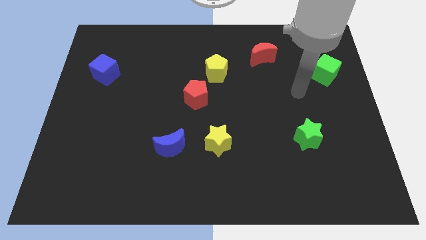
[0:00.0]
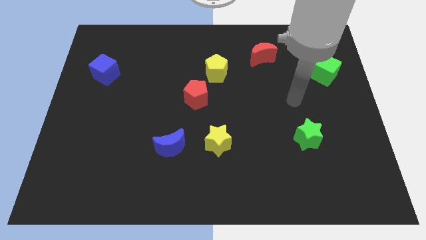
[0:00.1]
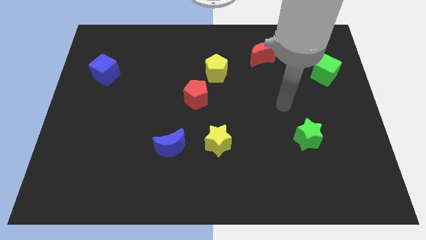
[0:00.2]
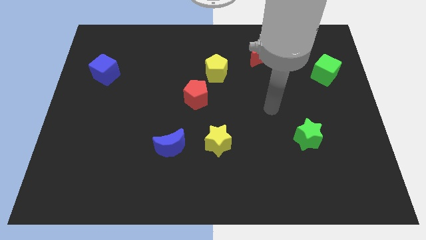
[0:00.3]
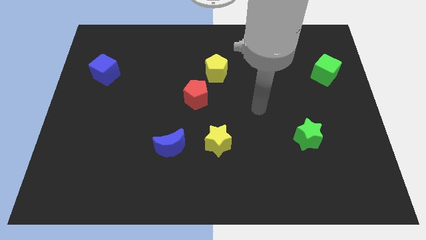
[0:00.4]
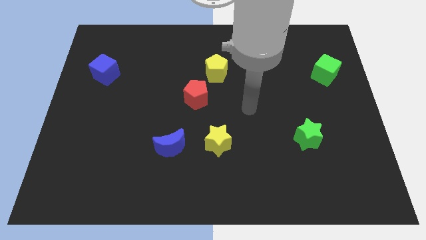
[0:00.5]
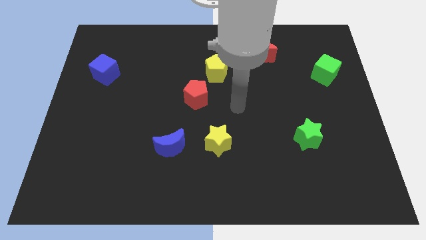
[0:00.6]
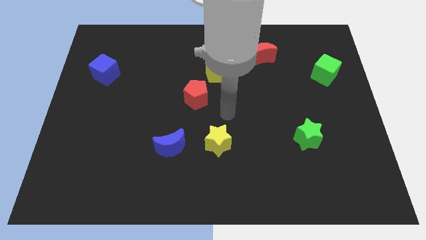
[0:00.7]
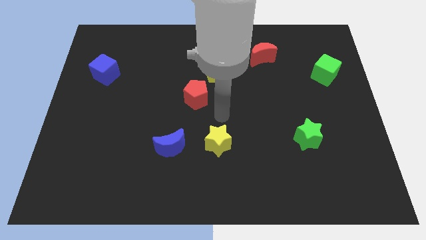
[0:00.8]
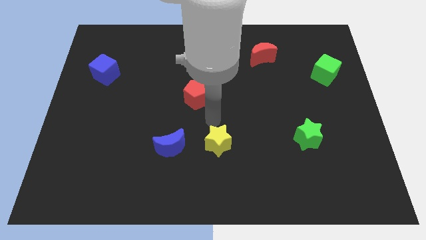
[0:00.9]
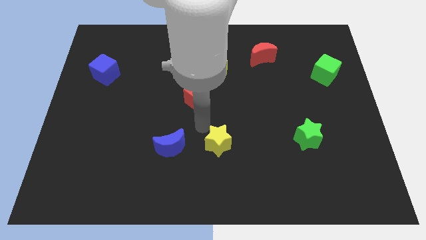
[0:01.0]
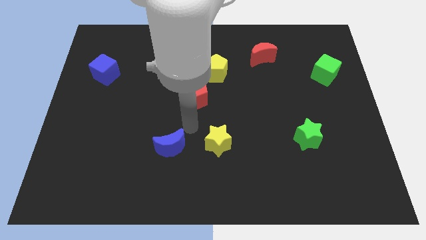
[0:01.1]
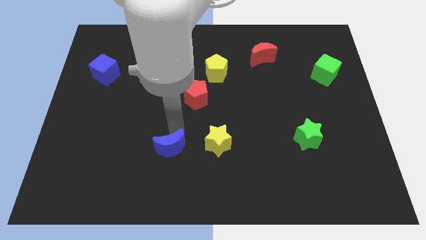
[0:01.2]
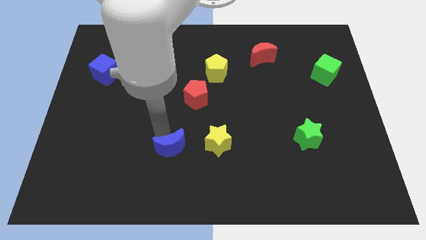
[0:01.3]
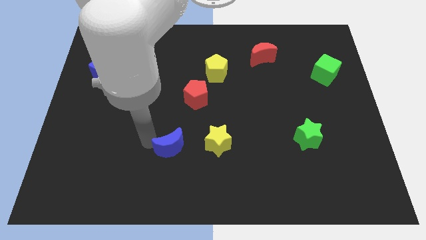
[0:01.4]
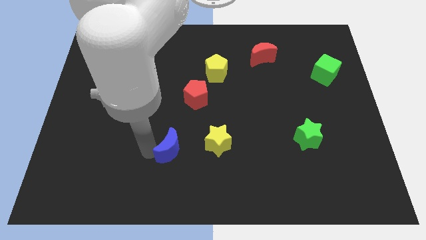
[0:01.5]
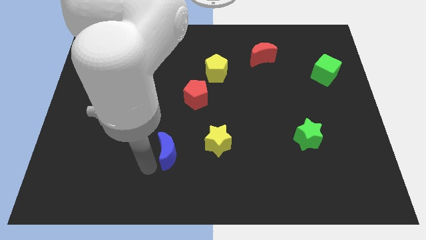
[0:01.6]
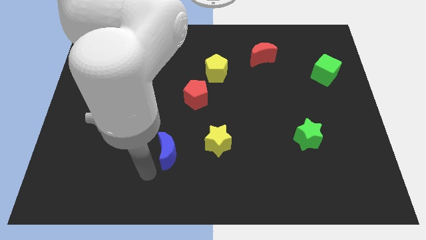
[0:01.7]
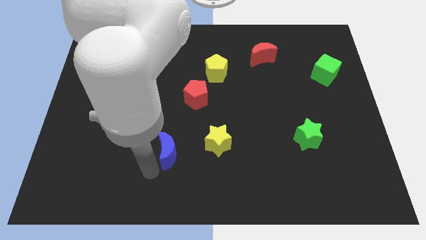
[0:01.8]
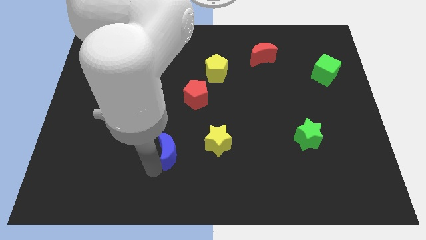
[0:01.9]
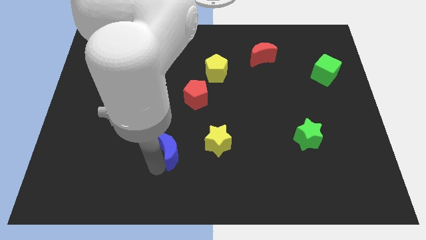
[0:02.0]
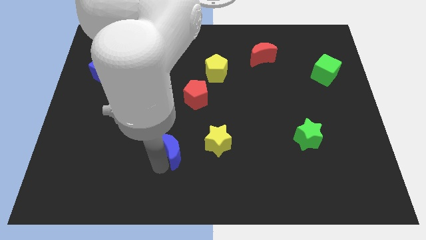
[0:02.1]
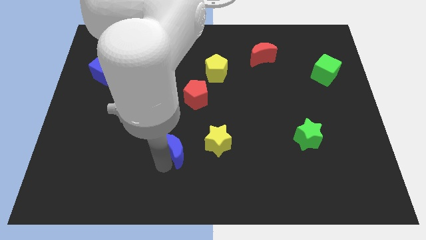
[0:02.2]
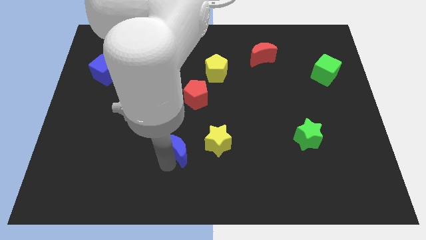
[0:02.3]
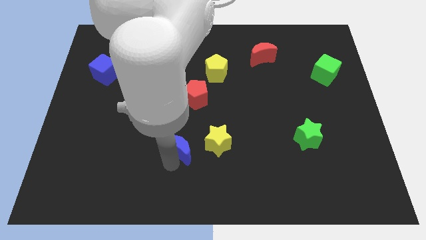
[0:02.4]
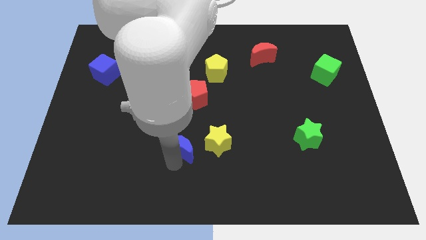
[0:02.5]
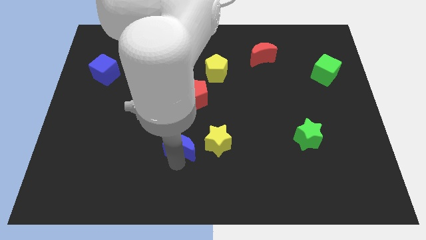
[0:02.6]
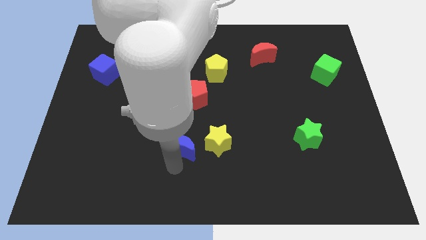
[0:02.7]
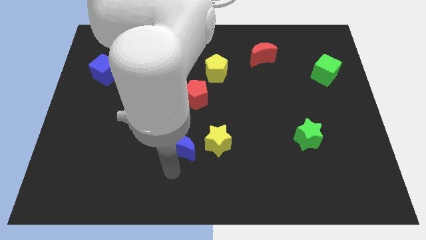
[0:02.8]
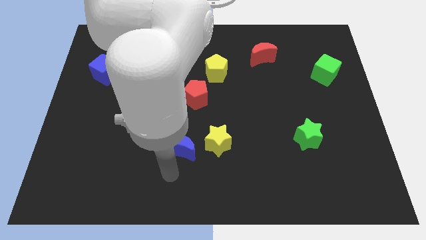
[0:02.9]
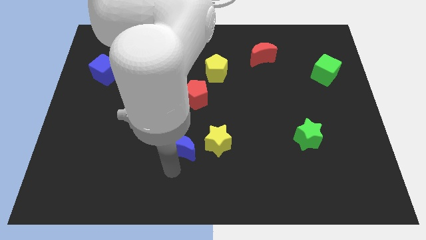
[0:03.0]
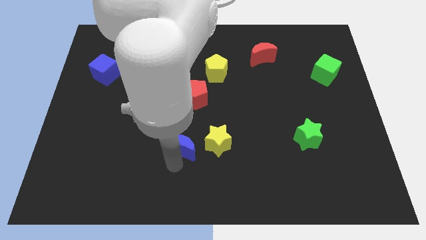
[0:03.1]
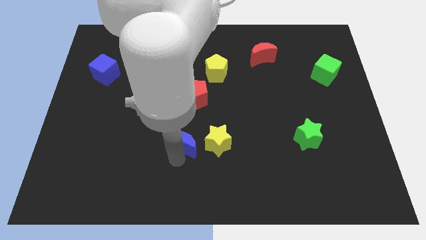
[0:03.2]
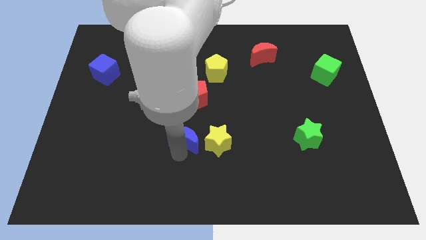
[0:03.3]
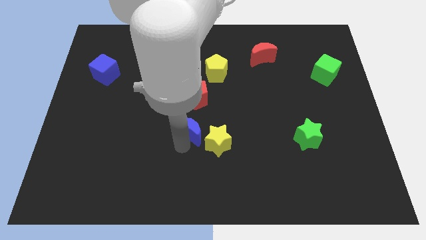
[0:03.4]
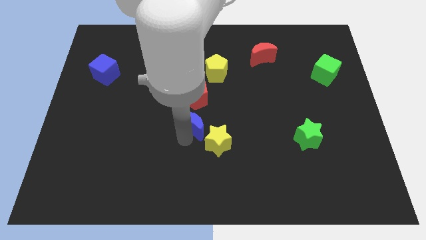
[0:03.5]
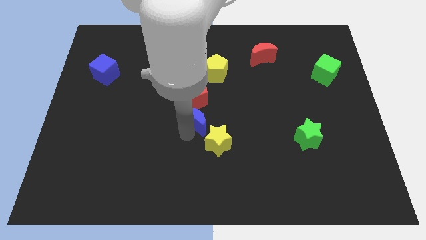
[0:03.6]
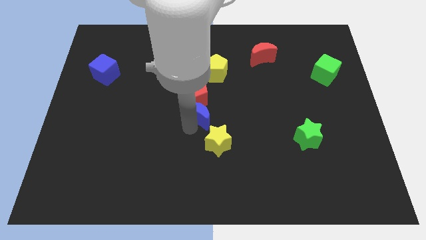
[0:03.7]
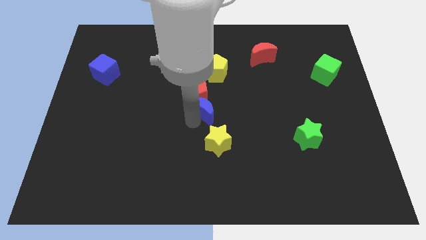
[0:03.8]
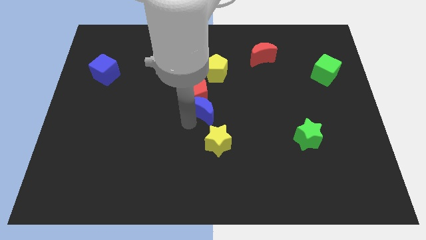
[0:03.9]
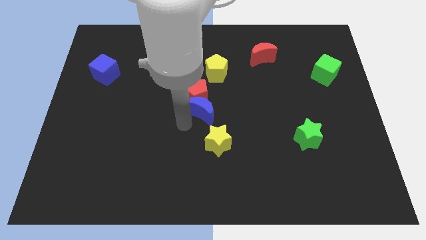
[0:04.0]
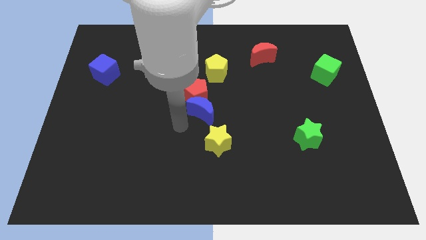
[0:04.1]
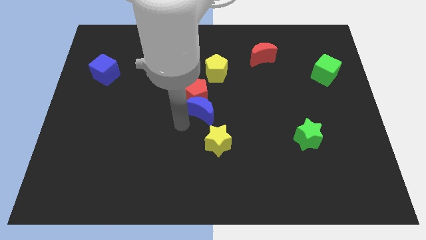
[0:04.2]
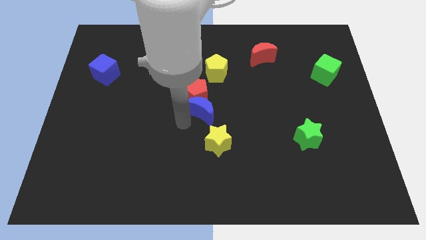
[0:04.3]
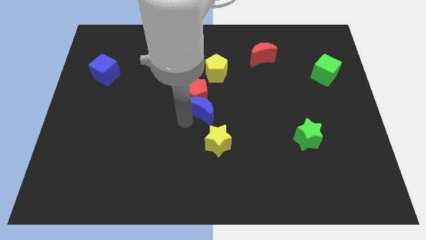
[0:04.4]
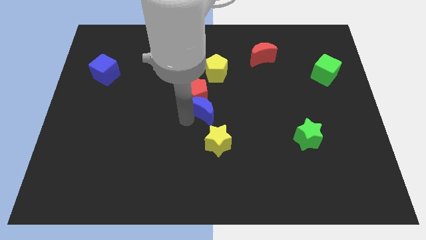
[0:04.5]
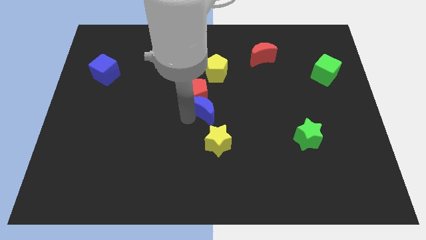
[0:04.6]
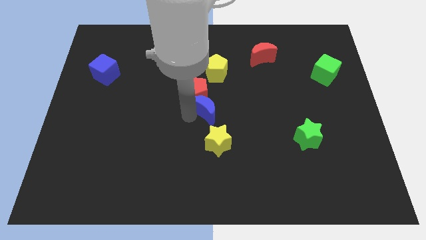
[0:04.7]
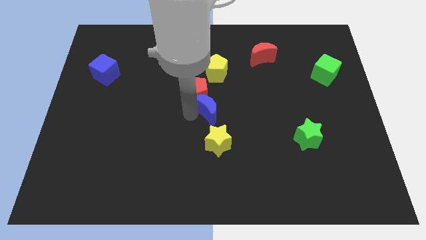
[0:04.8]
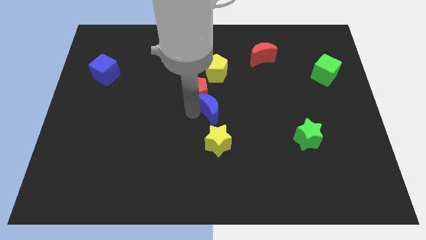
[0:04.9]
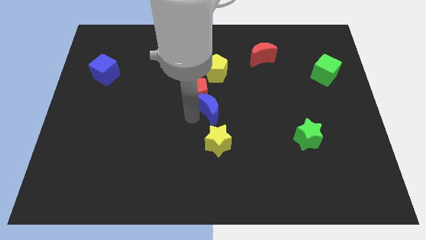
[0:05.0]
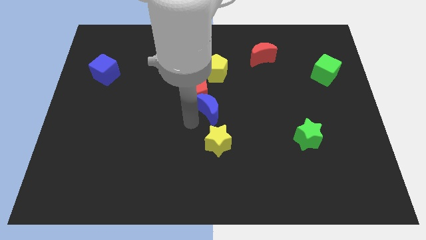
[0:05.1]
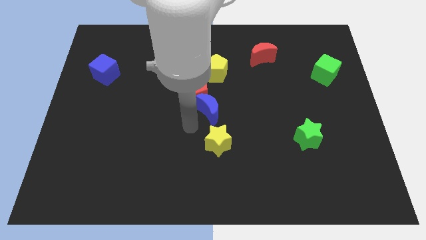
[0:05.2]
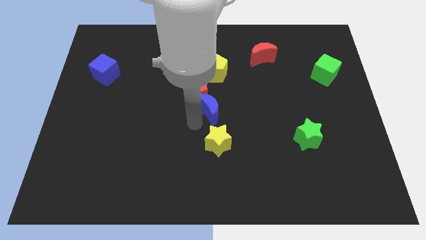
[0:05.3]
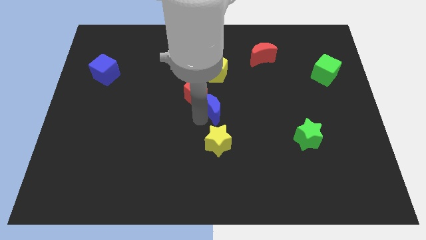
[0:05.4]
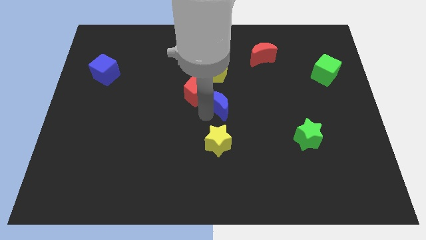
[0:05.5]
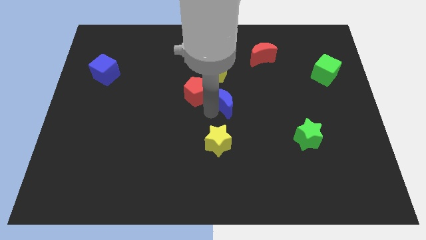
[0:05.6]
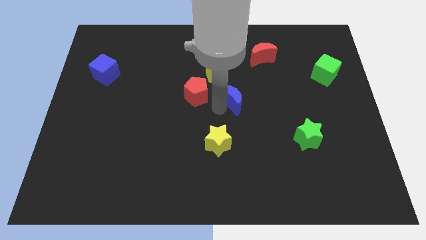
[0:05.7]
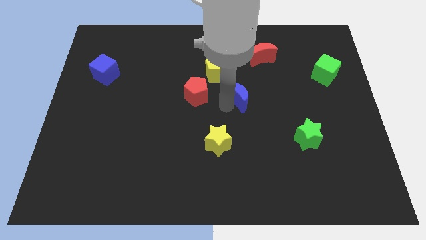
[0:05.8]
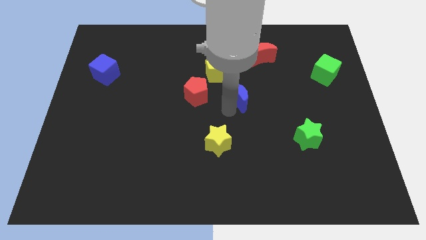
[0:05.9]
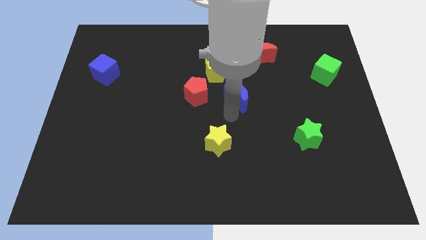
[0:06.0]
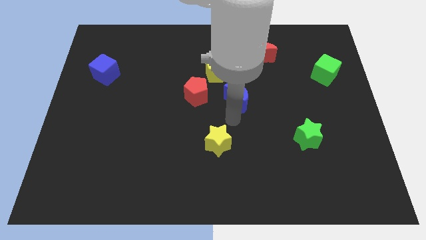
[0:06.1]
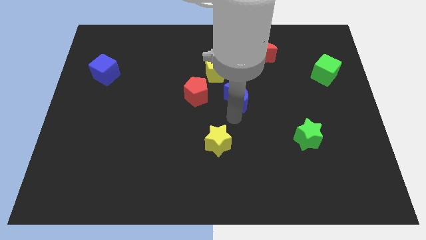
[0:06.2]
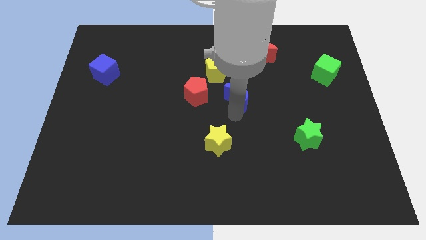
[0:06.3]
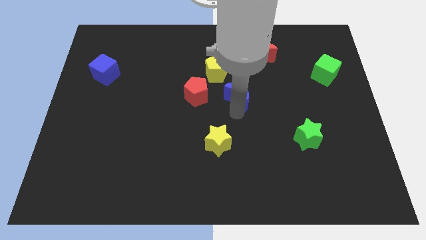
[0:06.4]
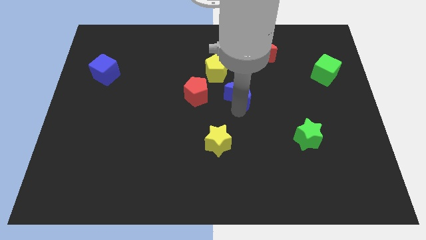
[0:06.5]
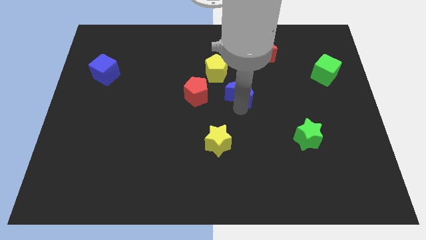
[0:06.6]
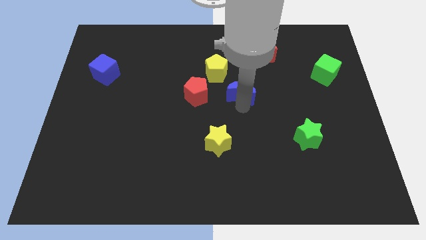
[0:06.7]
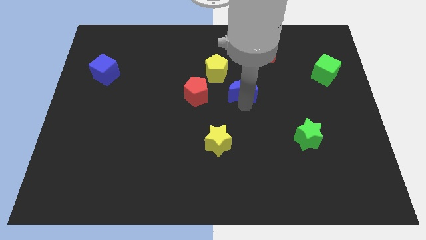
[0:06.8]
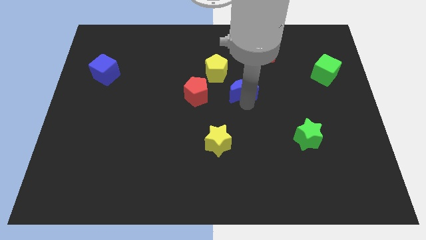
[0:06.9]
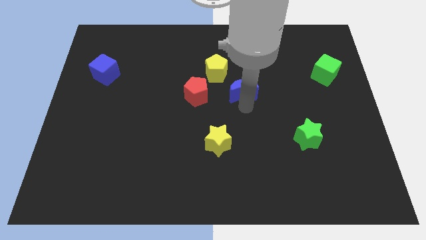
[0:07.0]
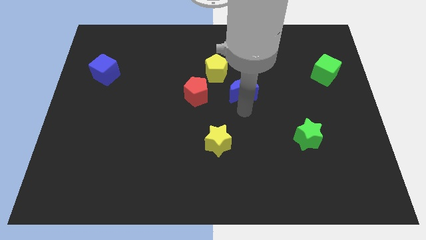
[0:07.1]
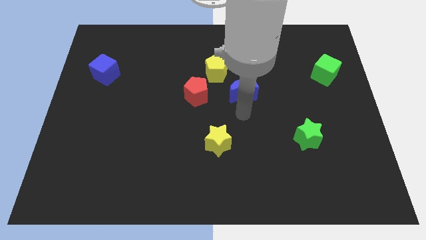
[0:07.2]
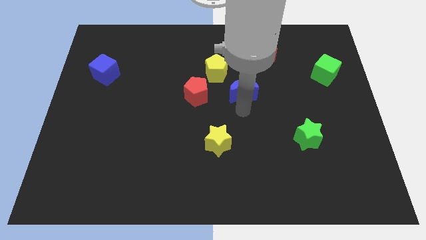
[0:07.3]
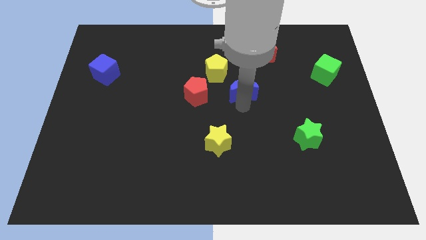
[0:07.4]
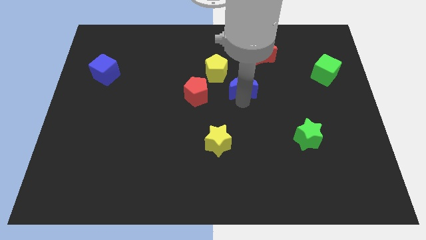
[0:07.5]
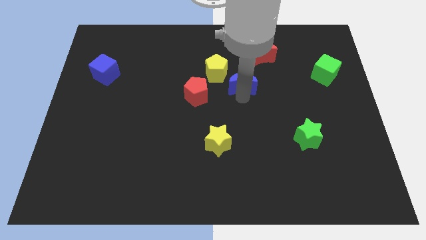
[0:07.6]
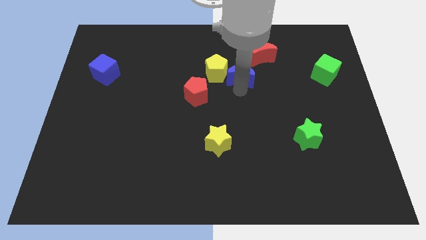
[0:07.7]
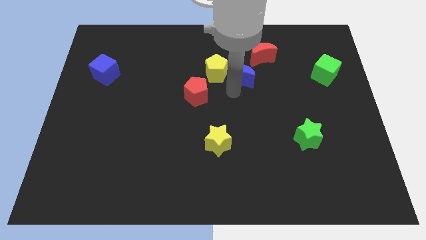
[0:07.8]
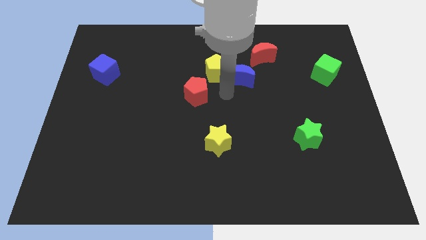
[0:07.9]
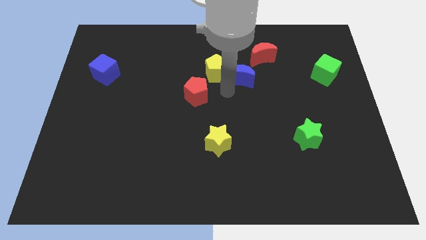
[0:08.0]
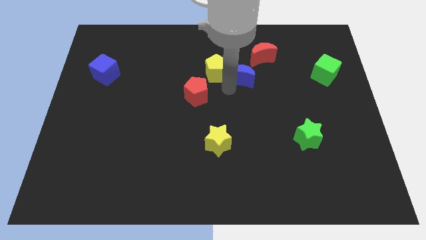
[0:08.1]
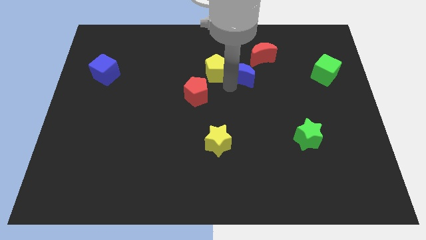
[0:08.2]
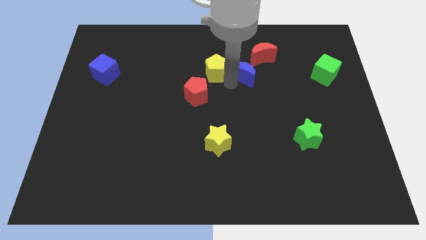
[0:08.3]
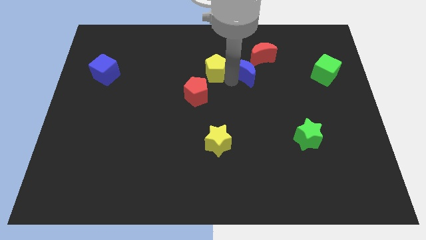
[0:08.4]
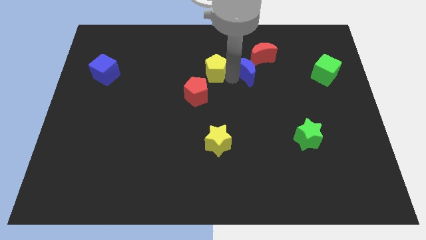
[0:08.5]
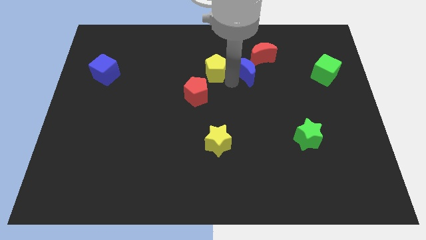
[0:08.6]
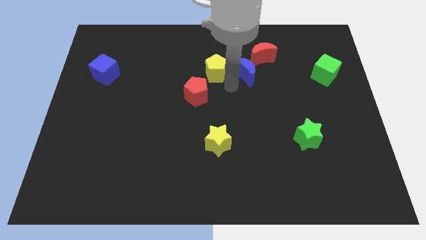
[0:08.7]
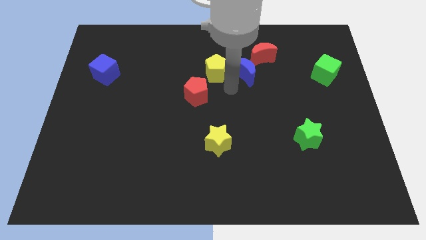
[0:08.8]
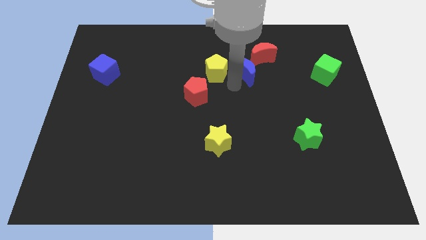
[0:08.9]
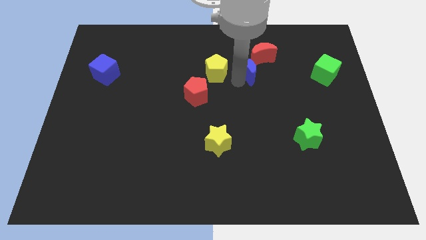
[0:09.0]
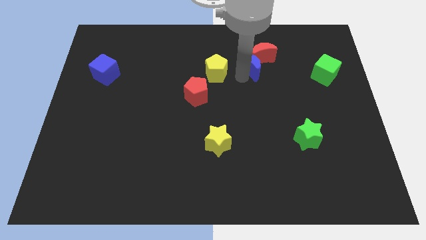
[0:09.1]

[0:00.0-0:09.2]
slide the blue moon towards the red moon
